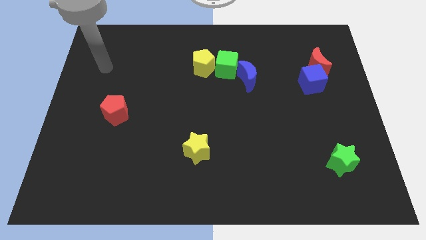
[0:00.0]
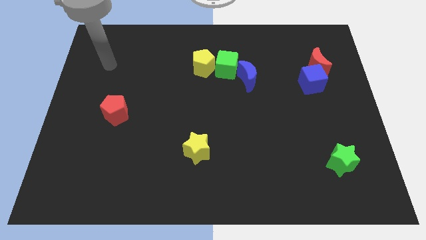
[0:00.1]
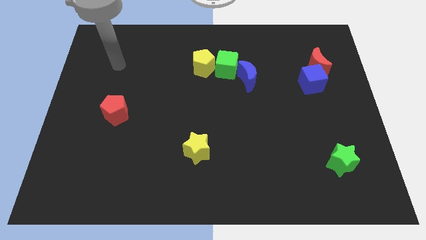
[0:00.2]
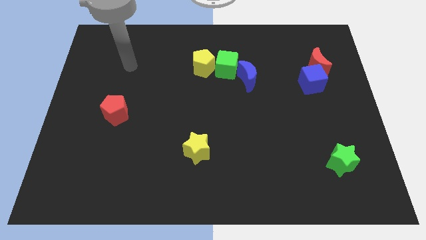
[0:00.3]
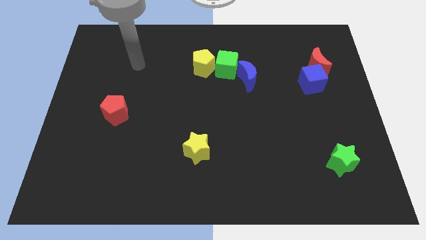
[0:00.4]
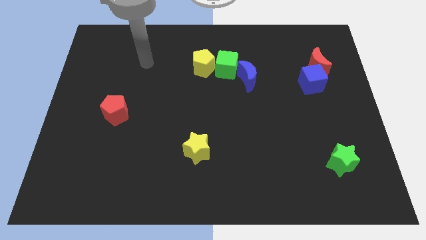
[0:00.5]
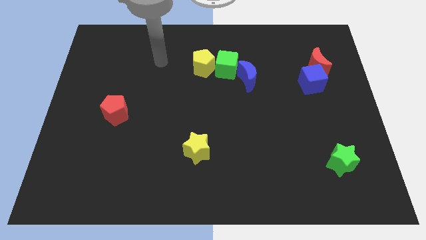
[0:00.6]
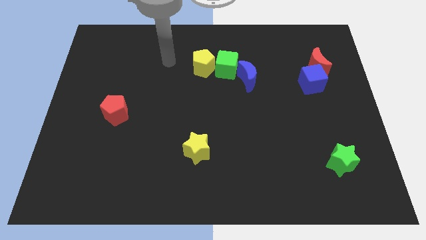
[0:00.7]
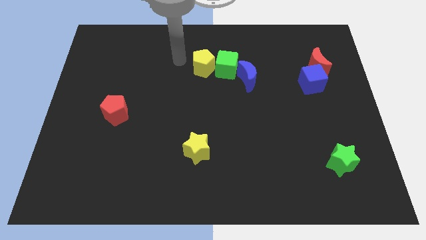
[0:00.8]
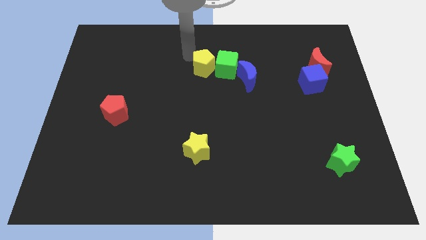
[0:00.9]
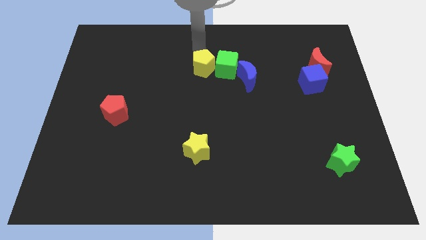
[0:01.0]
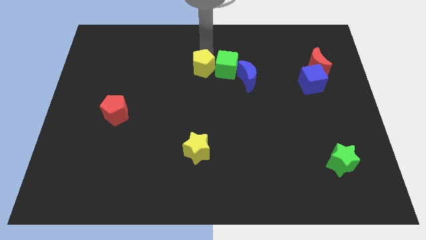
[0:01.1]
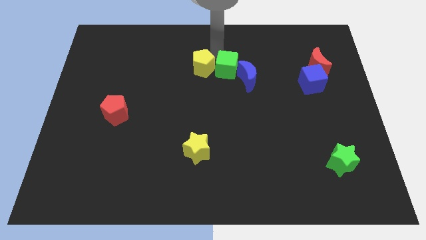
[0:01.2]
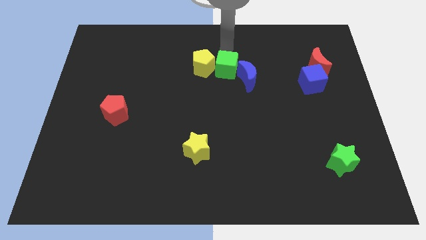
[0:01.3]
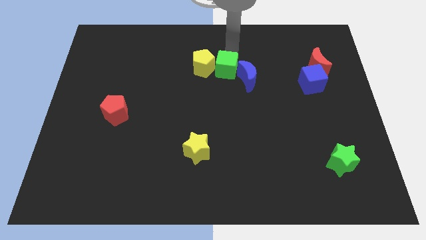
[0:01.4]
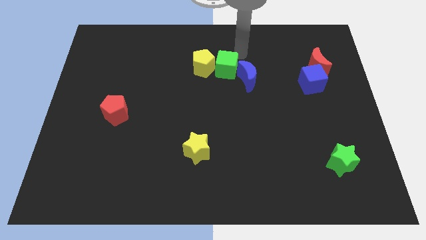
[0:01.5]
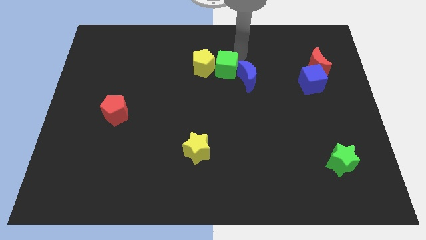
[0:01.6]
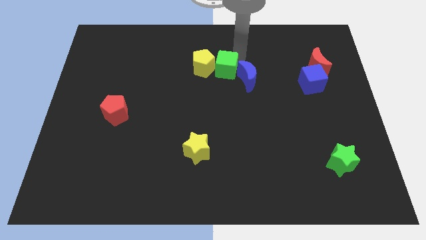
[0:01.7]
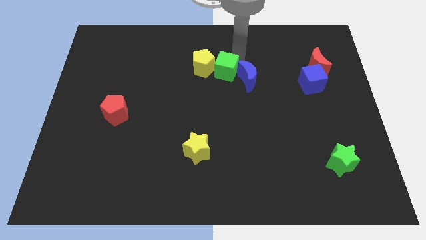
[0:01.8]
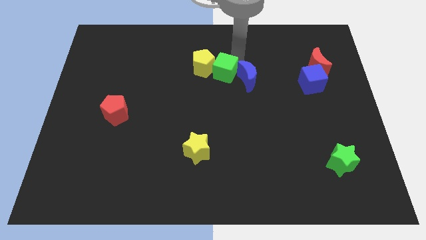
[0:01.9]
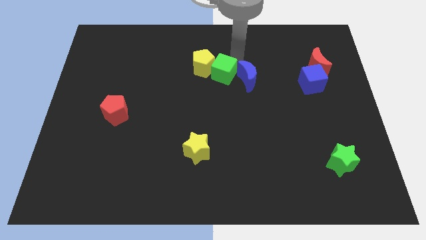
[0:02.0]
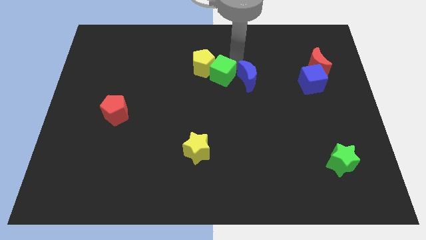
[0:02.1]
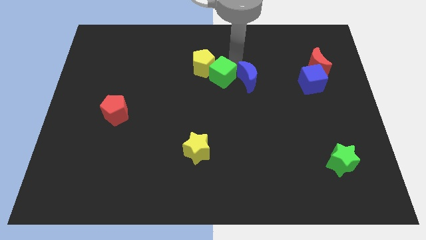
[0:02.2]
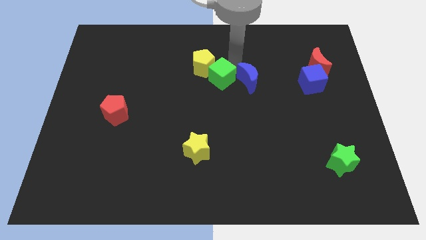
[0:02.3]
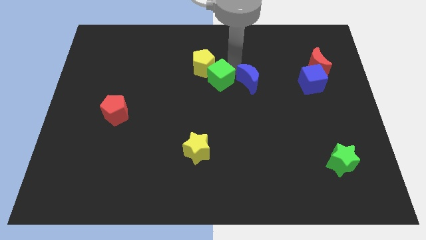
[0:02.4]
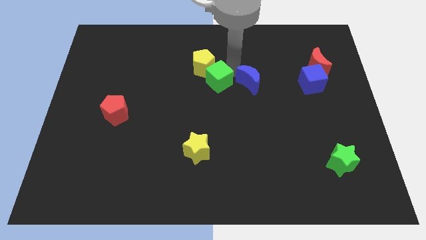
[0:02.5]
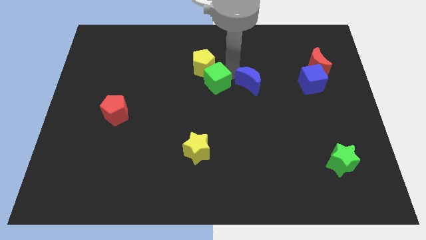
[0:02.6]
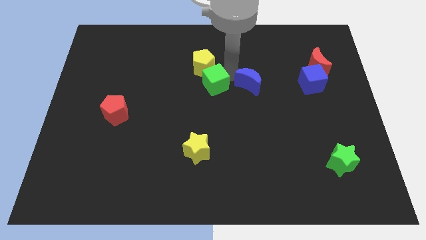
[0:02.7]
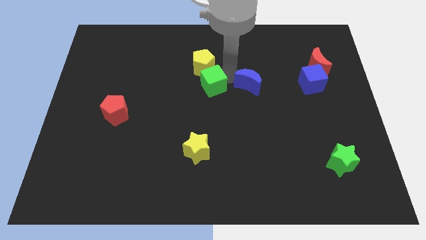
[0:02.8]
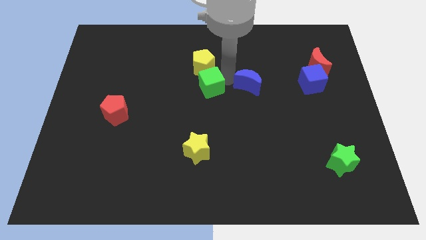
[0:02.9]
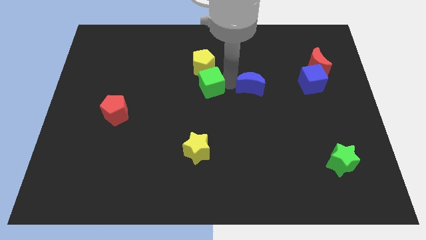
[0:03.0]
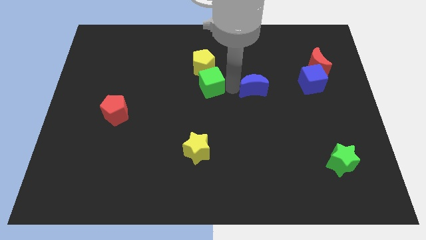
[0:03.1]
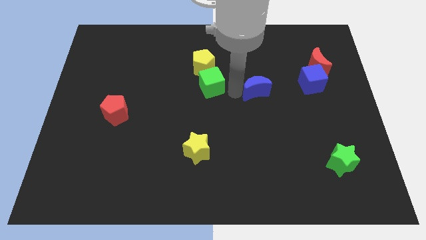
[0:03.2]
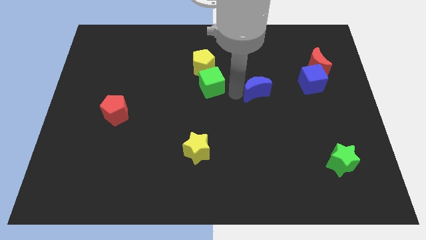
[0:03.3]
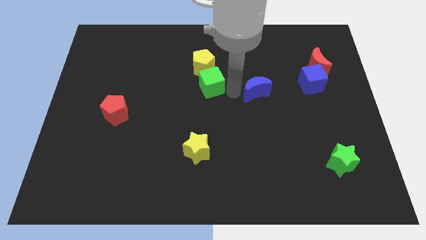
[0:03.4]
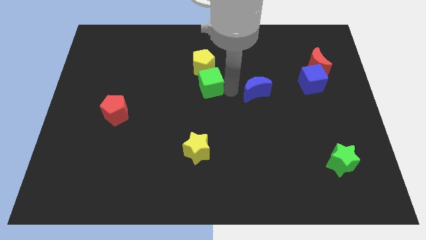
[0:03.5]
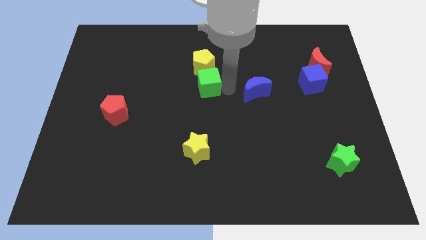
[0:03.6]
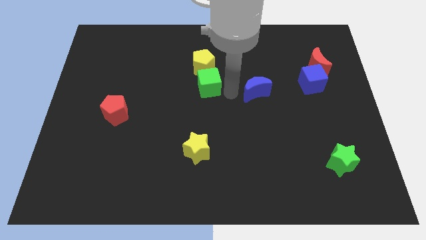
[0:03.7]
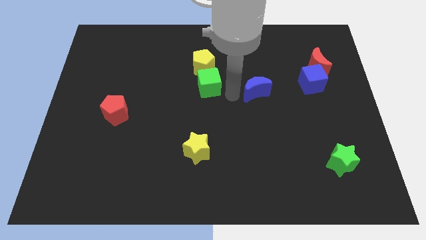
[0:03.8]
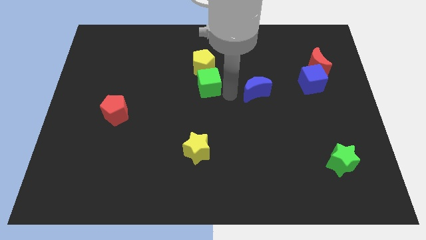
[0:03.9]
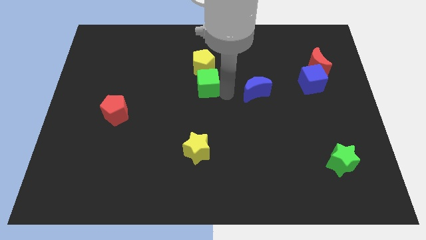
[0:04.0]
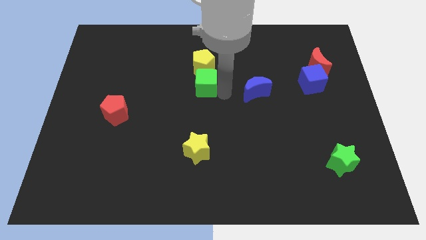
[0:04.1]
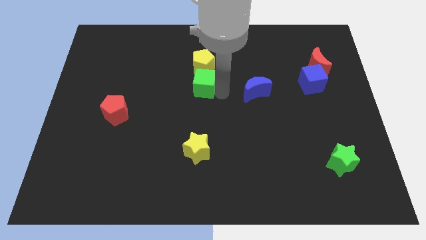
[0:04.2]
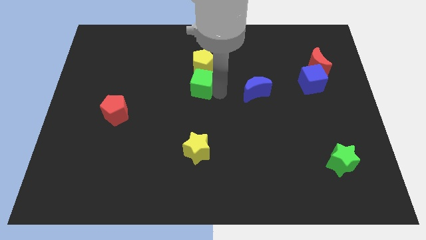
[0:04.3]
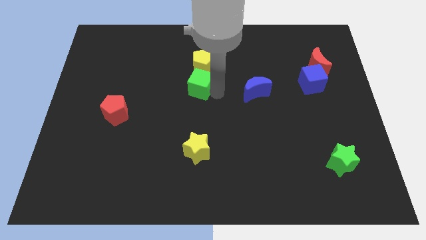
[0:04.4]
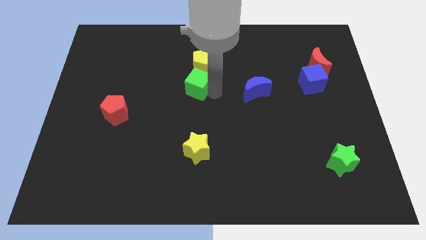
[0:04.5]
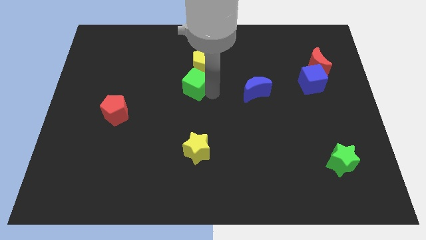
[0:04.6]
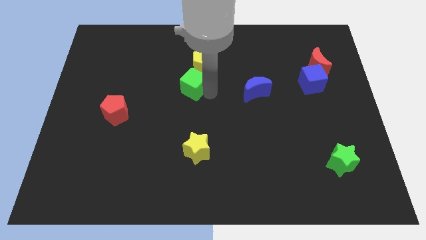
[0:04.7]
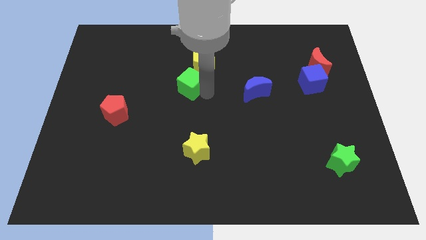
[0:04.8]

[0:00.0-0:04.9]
slide the green cube somewhat left

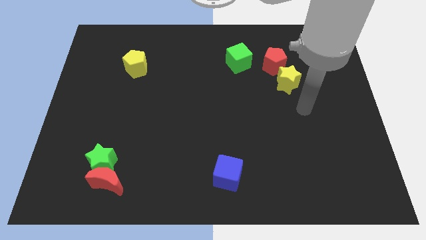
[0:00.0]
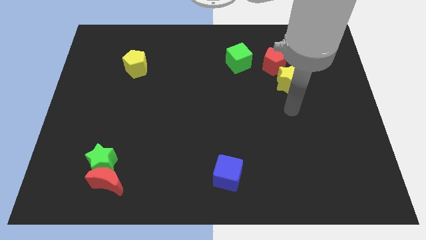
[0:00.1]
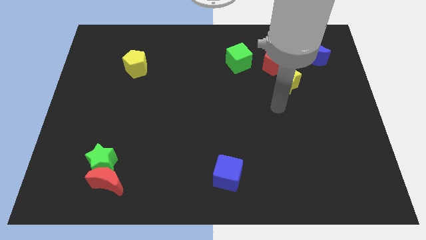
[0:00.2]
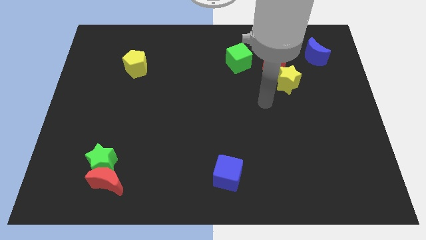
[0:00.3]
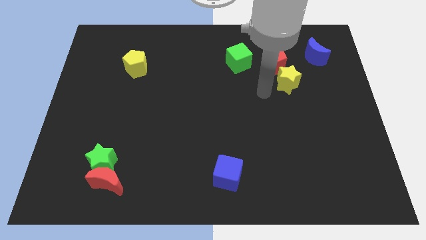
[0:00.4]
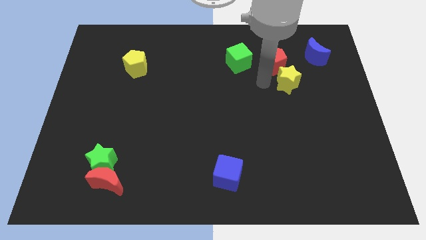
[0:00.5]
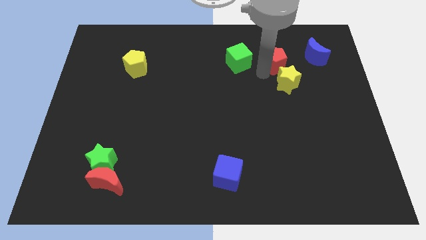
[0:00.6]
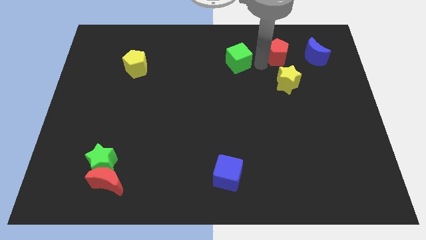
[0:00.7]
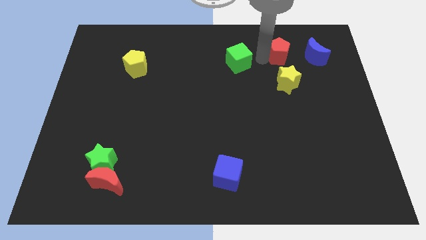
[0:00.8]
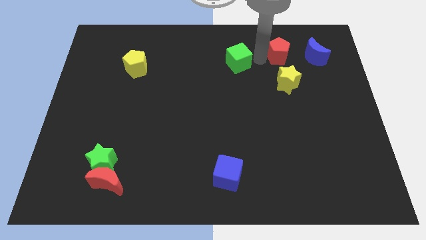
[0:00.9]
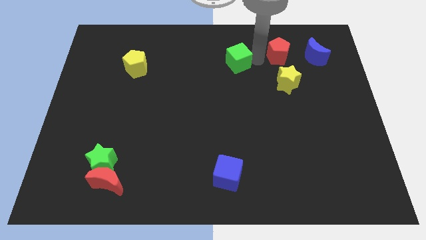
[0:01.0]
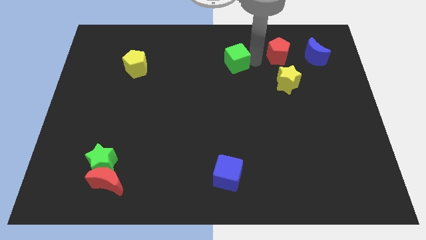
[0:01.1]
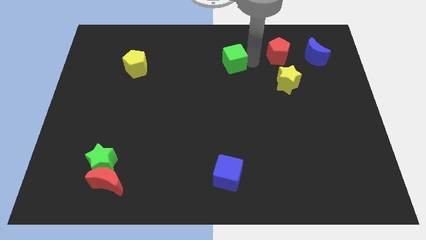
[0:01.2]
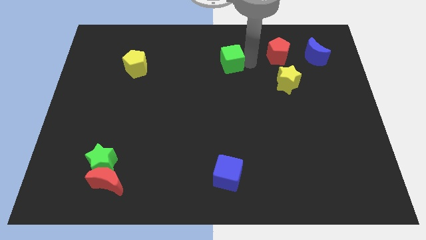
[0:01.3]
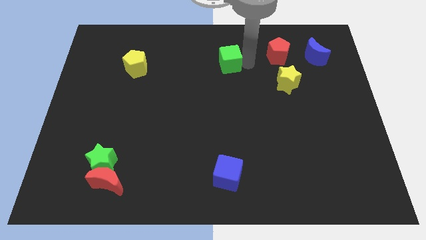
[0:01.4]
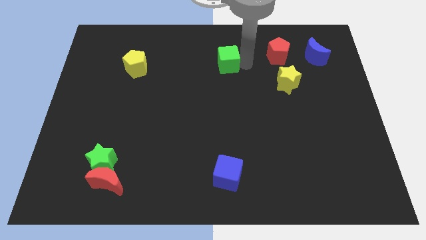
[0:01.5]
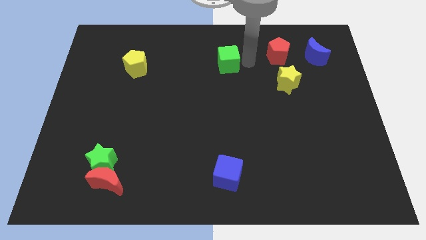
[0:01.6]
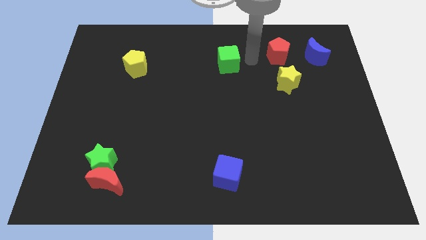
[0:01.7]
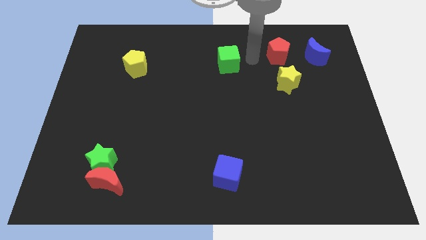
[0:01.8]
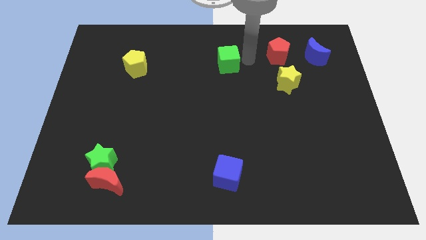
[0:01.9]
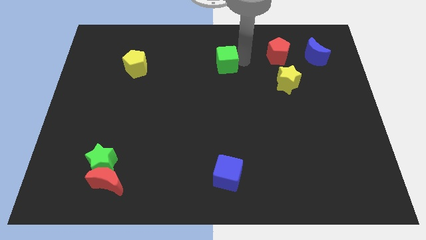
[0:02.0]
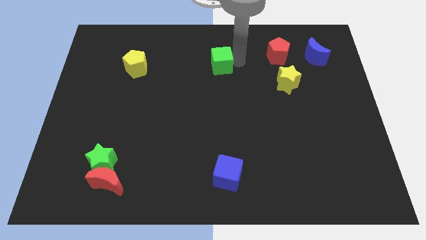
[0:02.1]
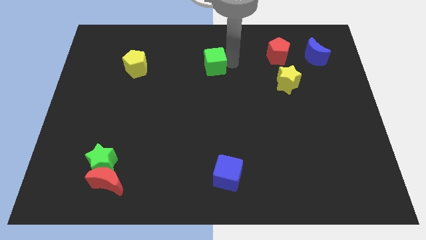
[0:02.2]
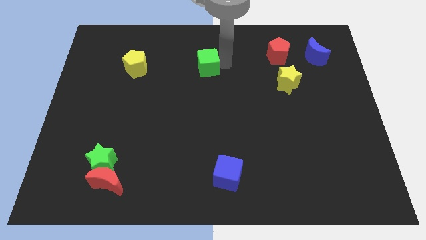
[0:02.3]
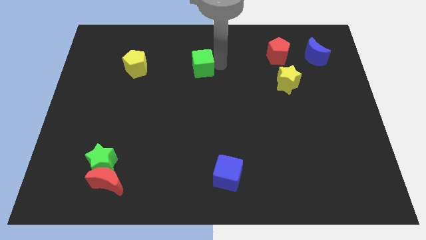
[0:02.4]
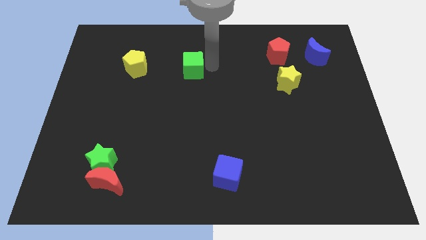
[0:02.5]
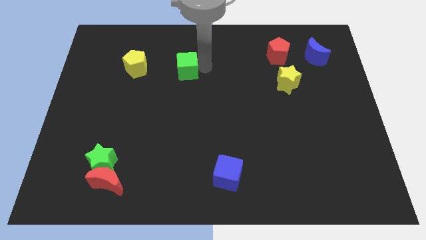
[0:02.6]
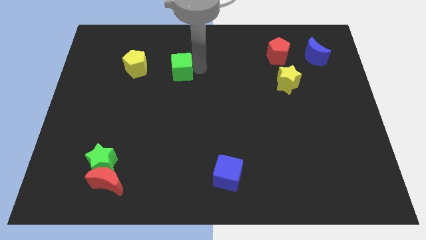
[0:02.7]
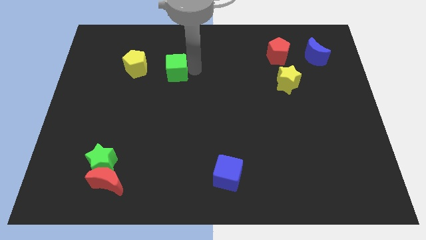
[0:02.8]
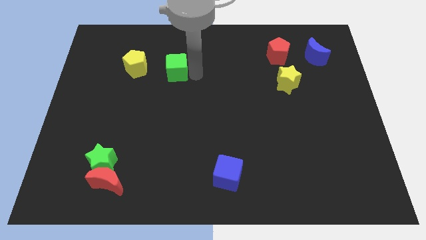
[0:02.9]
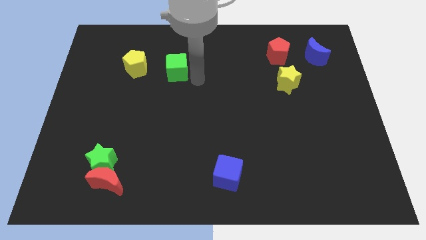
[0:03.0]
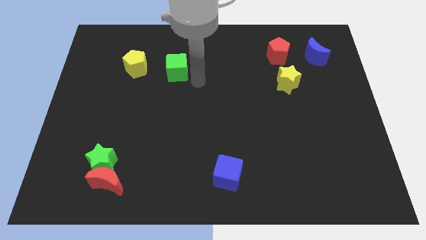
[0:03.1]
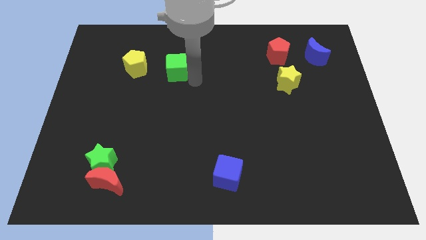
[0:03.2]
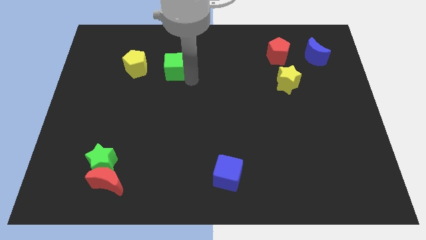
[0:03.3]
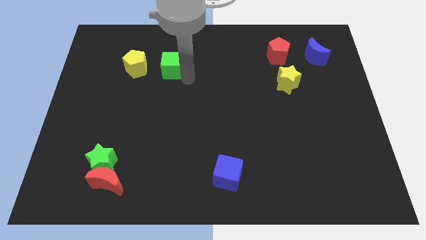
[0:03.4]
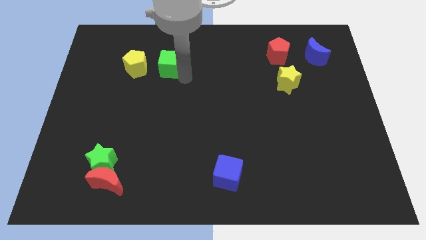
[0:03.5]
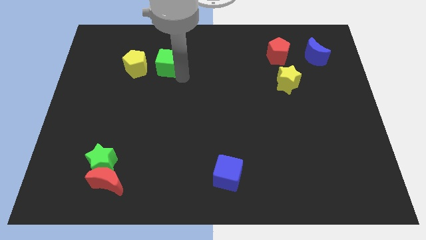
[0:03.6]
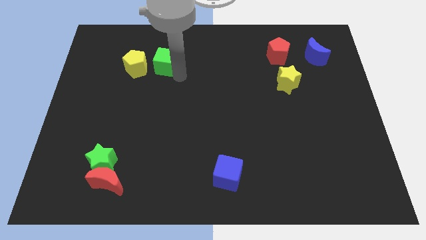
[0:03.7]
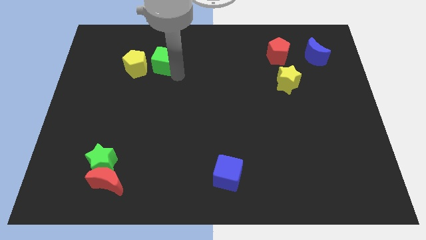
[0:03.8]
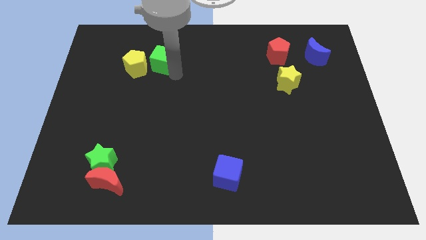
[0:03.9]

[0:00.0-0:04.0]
slide the green cube left
